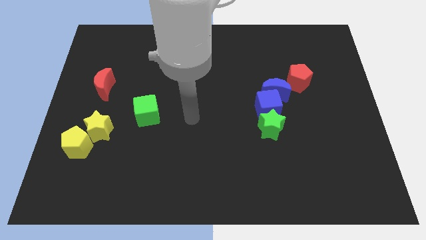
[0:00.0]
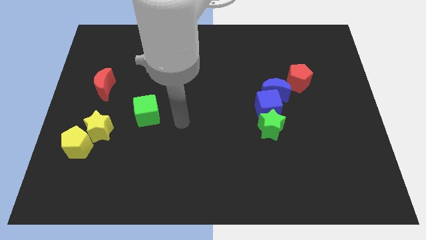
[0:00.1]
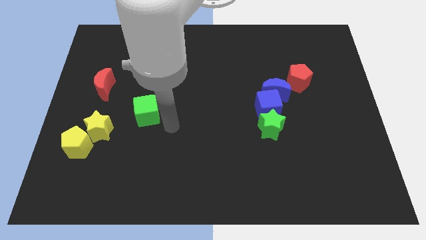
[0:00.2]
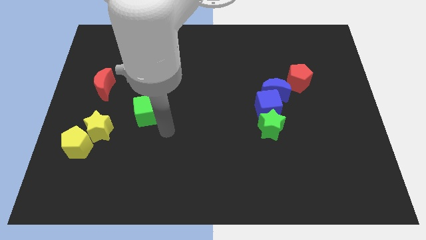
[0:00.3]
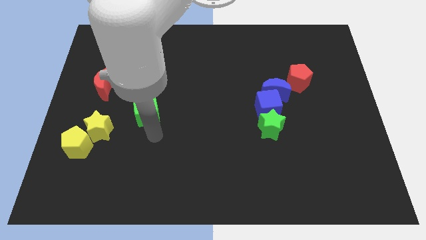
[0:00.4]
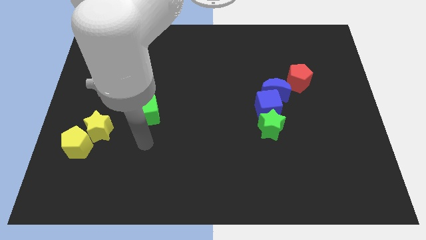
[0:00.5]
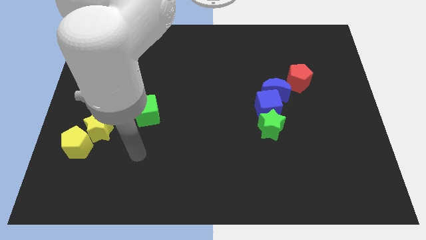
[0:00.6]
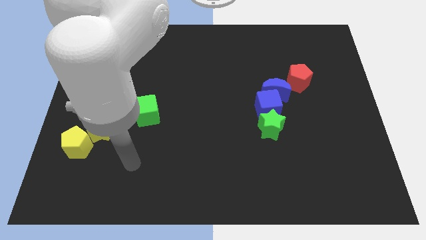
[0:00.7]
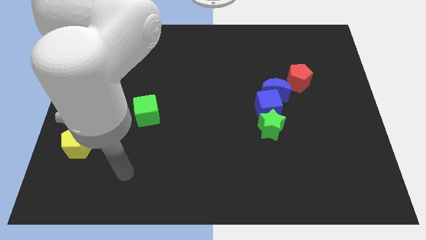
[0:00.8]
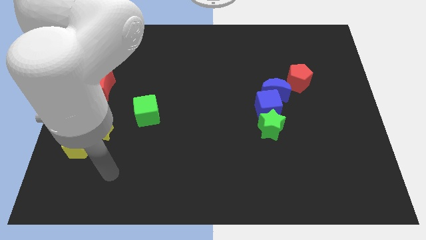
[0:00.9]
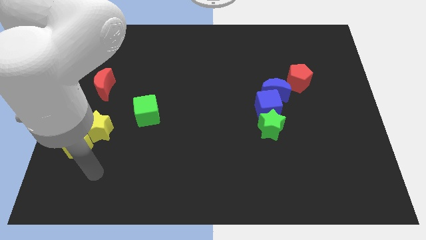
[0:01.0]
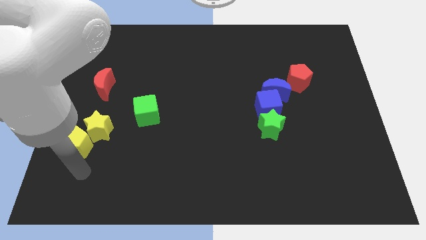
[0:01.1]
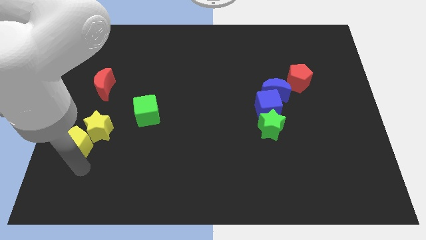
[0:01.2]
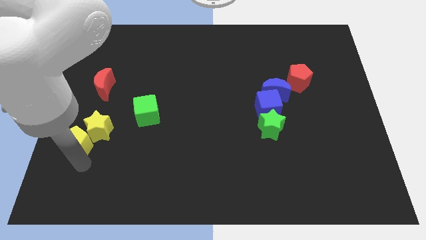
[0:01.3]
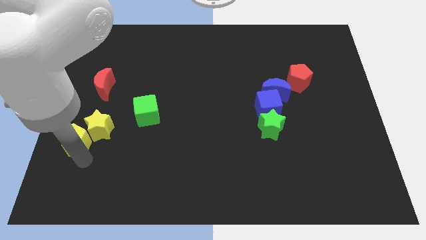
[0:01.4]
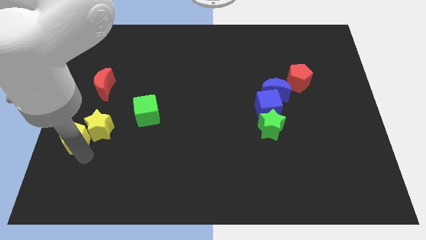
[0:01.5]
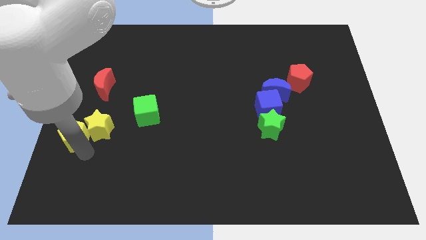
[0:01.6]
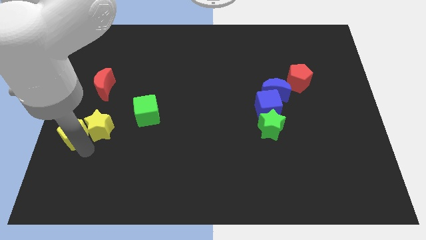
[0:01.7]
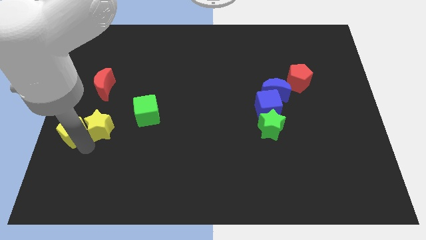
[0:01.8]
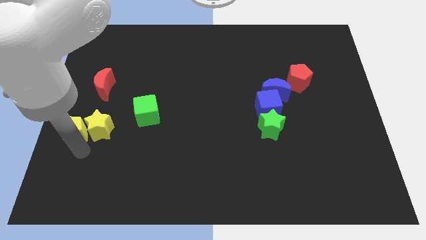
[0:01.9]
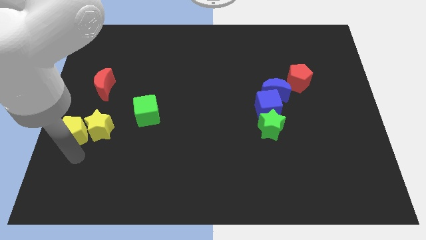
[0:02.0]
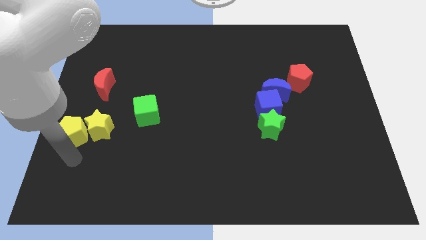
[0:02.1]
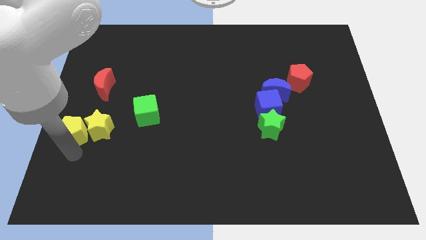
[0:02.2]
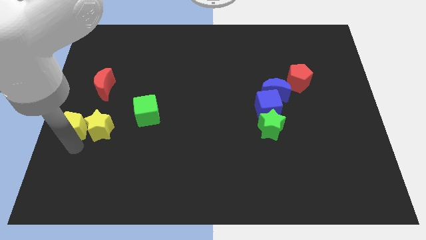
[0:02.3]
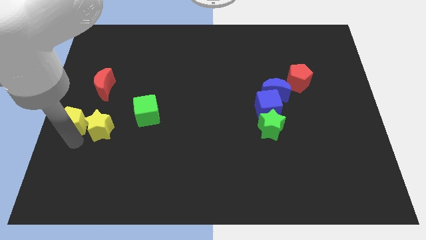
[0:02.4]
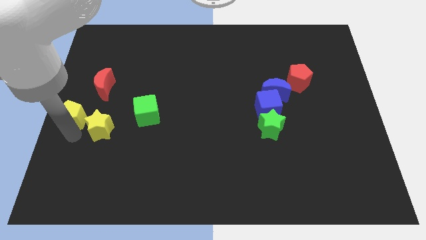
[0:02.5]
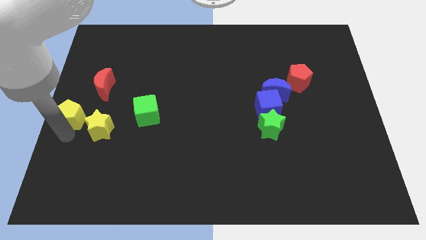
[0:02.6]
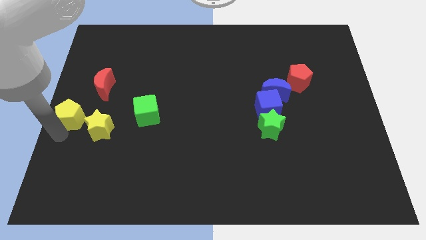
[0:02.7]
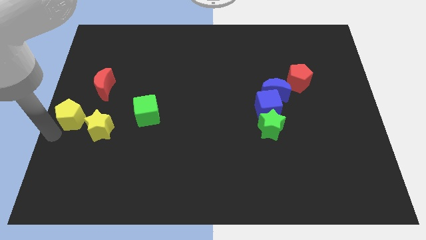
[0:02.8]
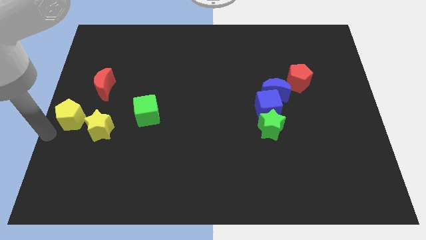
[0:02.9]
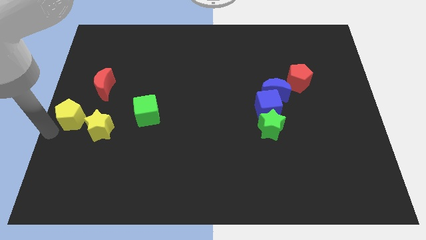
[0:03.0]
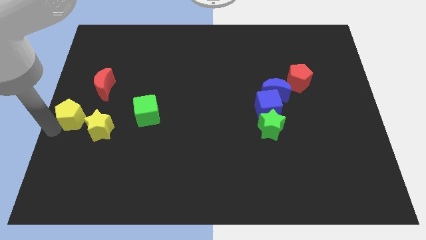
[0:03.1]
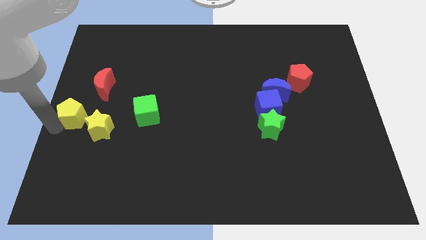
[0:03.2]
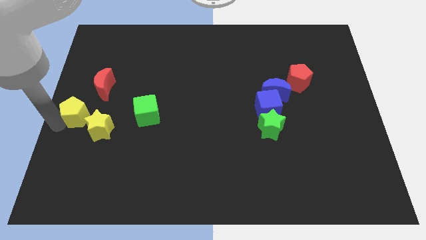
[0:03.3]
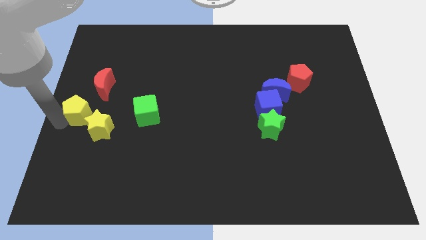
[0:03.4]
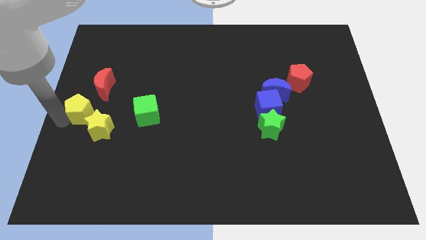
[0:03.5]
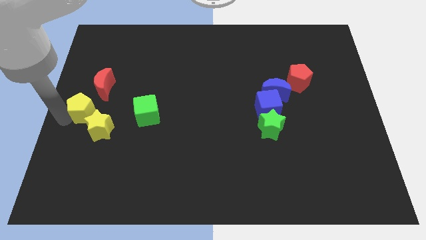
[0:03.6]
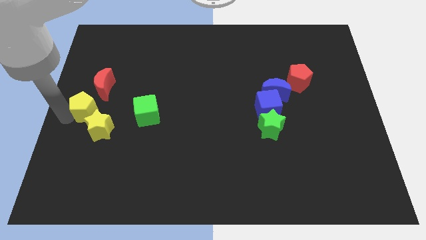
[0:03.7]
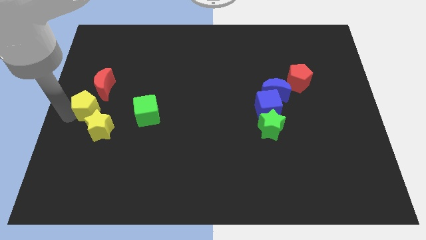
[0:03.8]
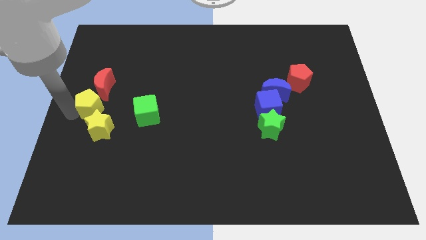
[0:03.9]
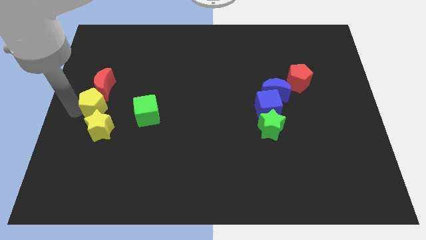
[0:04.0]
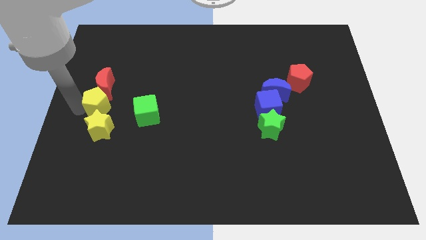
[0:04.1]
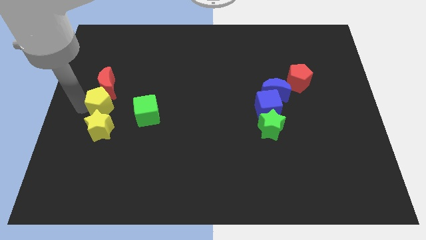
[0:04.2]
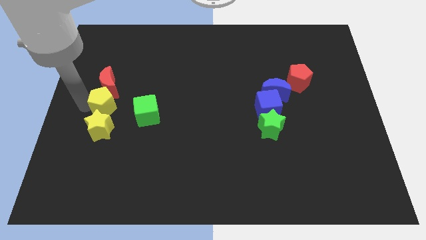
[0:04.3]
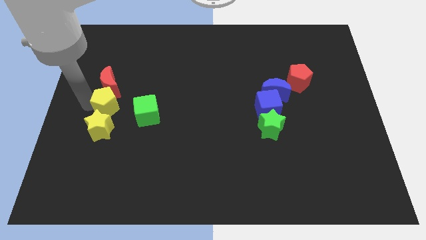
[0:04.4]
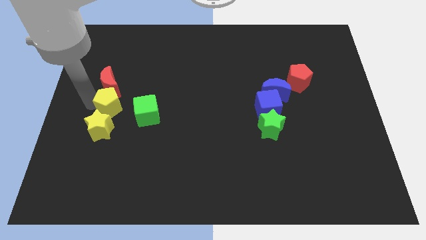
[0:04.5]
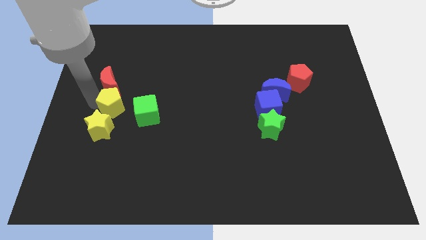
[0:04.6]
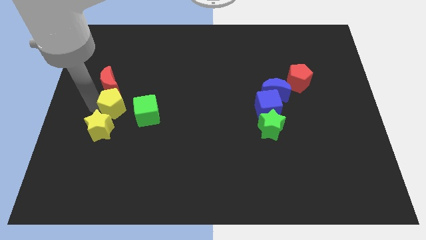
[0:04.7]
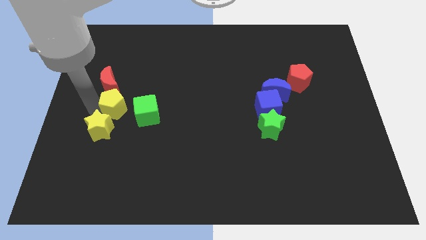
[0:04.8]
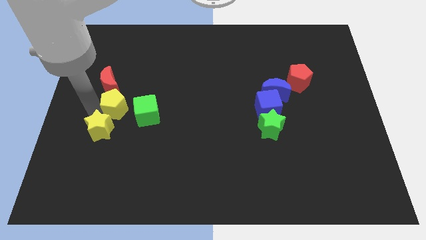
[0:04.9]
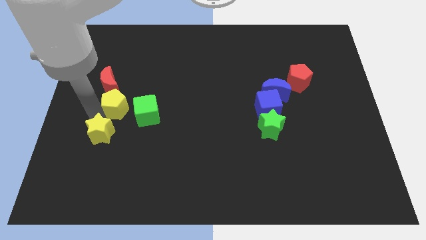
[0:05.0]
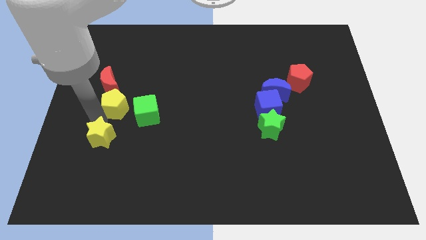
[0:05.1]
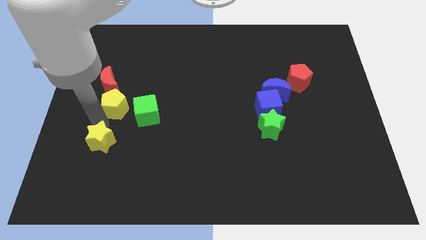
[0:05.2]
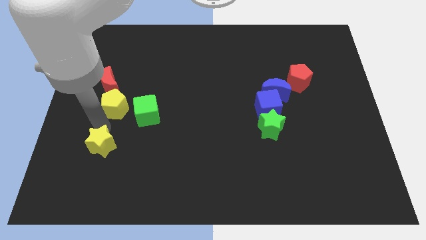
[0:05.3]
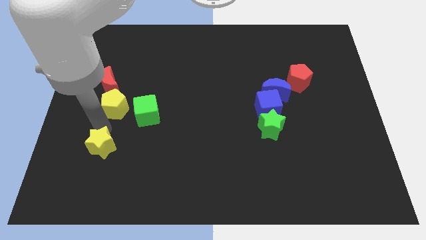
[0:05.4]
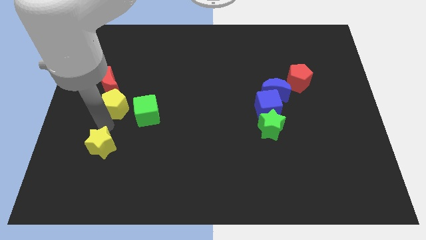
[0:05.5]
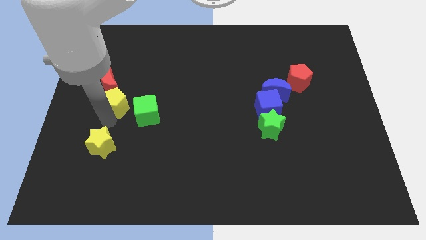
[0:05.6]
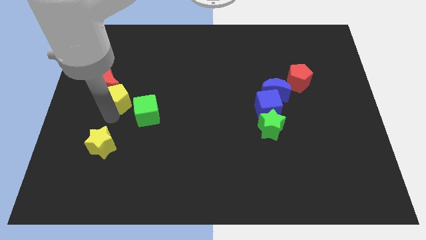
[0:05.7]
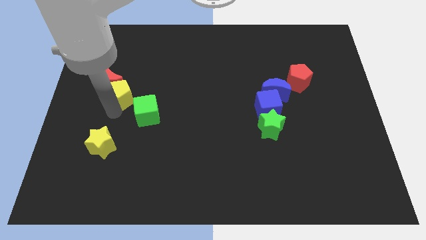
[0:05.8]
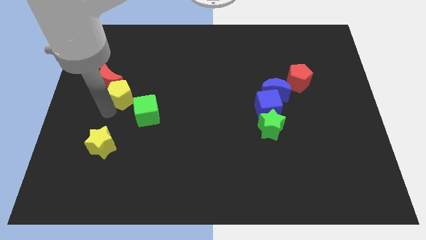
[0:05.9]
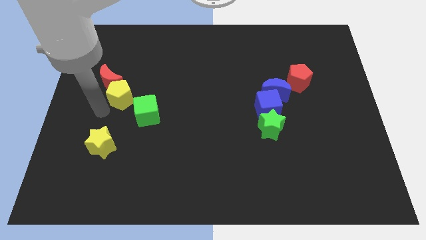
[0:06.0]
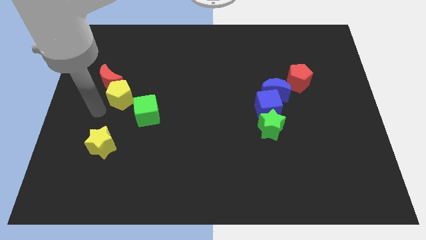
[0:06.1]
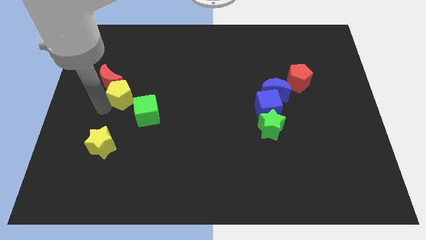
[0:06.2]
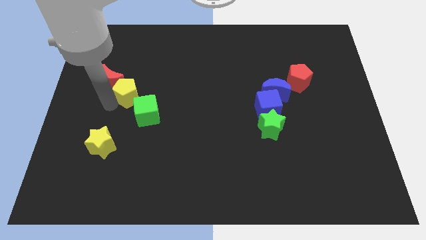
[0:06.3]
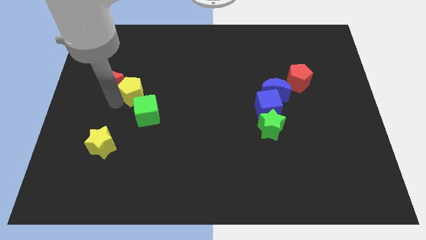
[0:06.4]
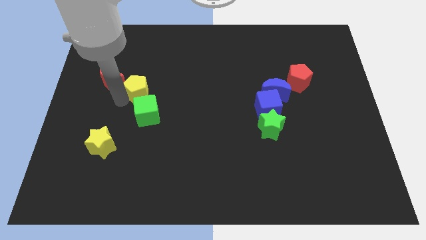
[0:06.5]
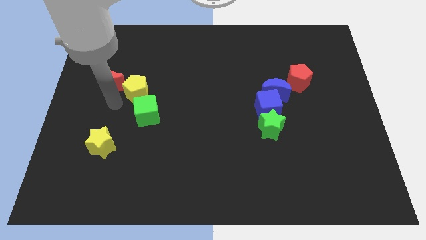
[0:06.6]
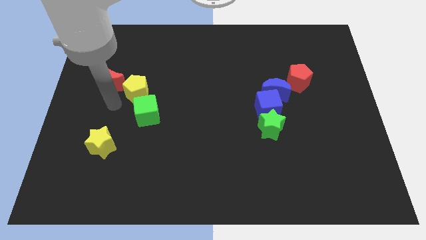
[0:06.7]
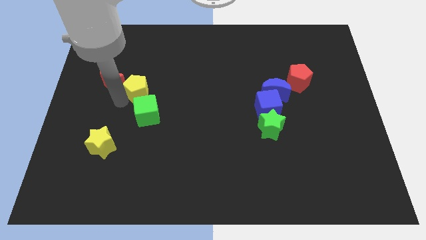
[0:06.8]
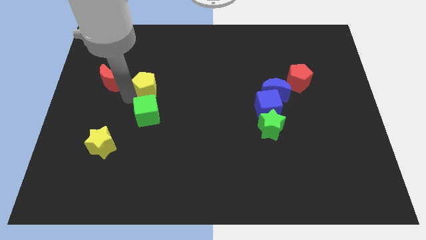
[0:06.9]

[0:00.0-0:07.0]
move the yellow pentagon up and to the right diagonally

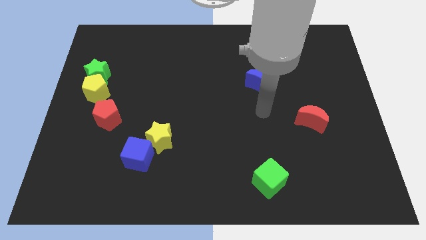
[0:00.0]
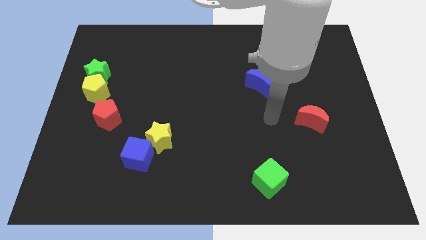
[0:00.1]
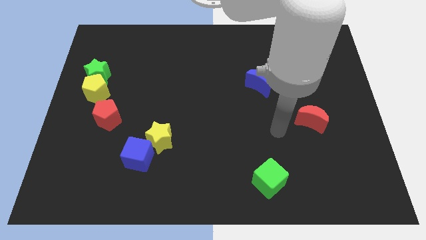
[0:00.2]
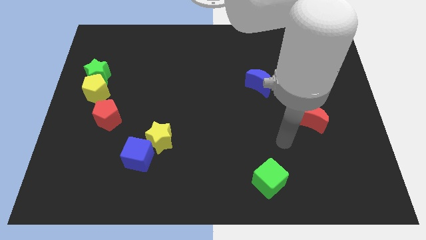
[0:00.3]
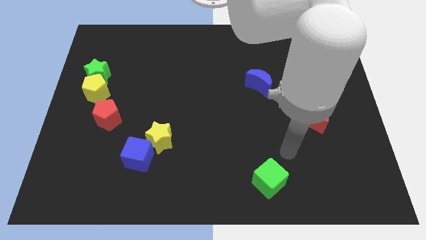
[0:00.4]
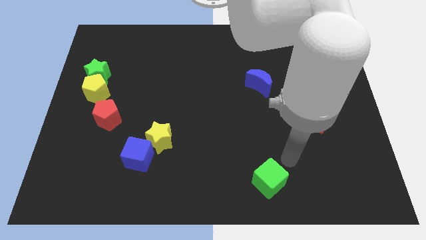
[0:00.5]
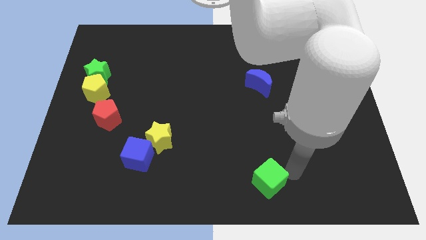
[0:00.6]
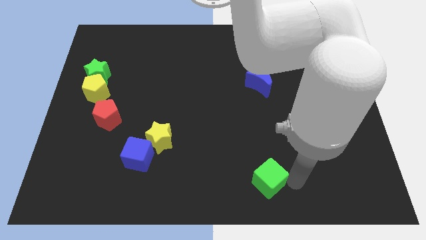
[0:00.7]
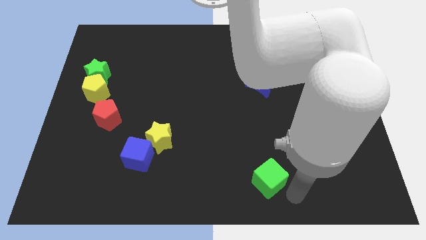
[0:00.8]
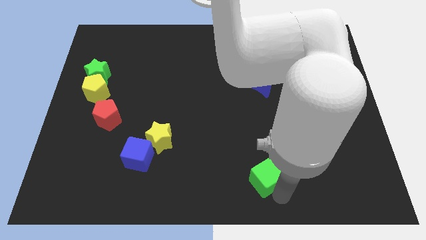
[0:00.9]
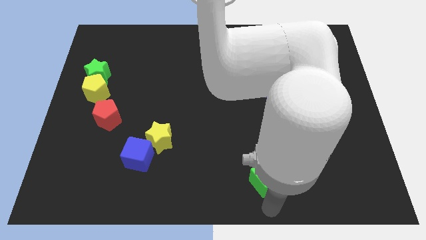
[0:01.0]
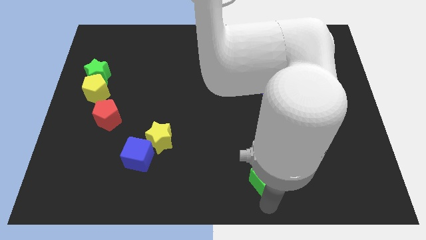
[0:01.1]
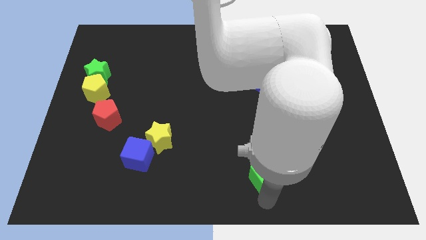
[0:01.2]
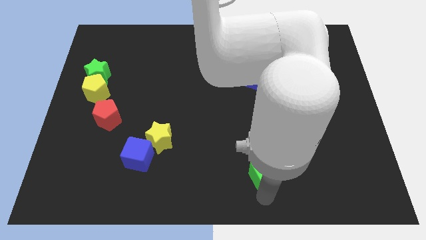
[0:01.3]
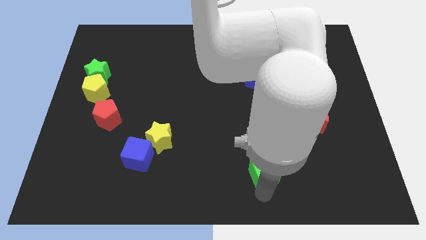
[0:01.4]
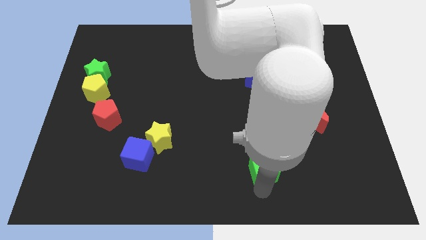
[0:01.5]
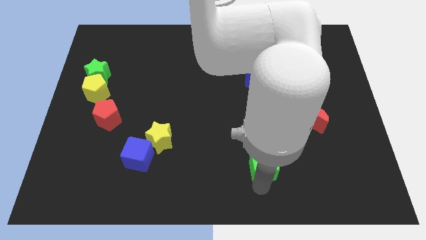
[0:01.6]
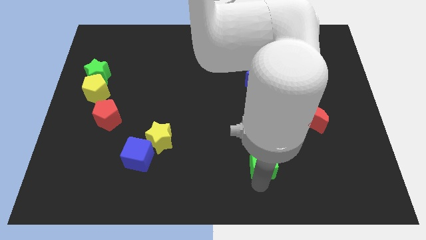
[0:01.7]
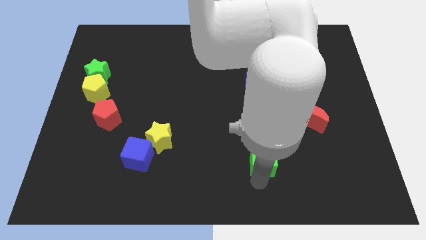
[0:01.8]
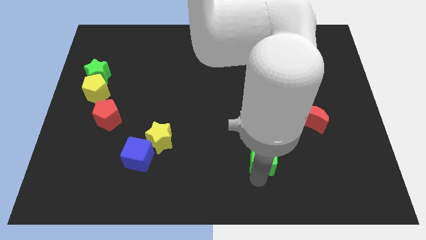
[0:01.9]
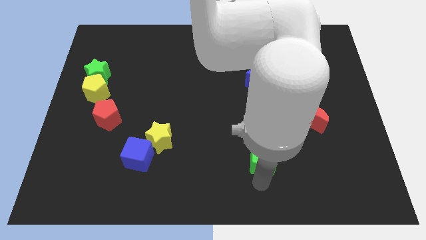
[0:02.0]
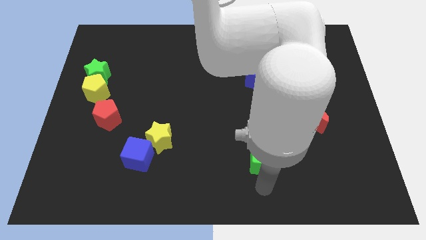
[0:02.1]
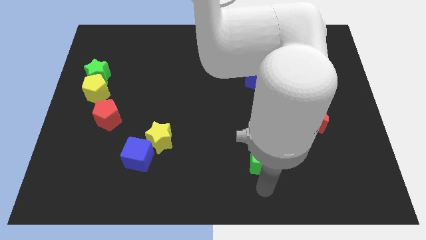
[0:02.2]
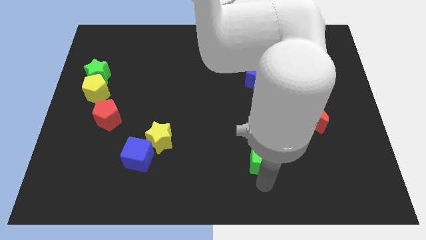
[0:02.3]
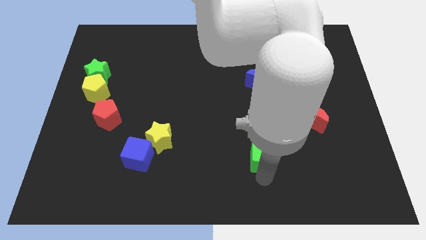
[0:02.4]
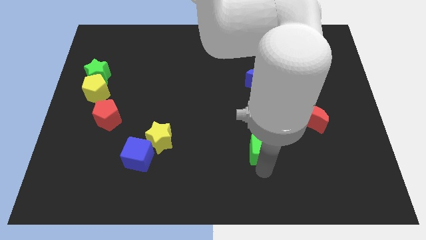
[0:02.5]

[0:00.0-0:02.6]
slightly move the green cube upwards
